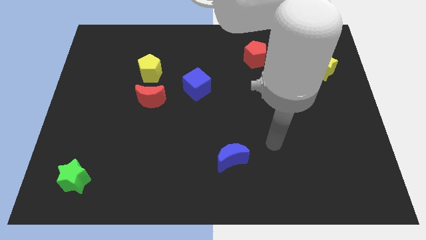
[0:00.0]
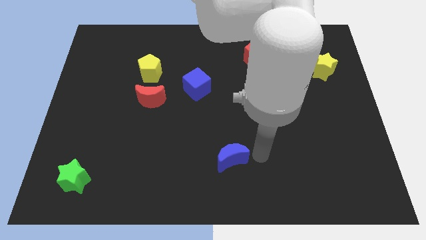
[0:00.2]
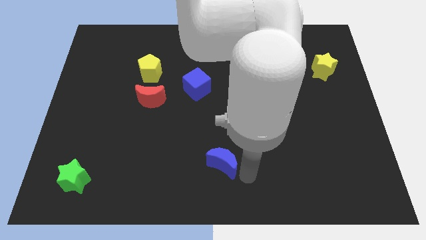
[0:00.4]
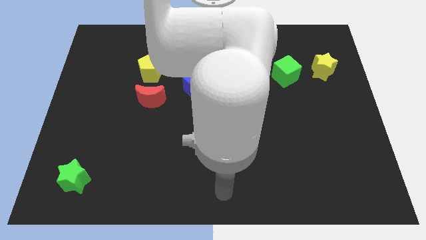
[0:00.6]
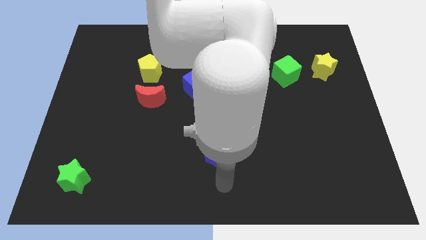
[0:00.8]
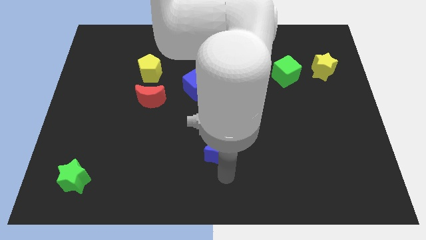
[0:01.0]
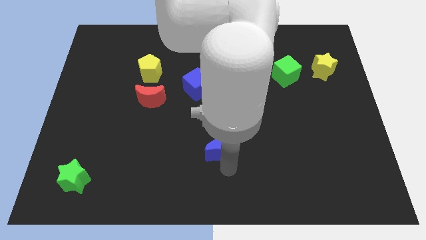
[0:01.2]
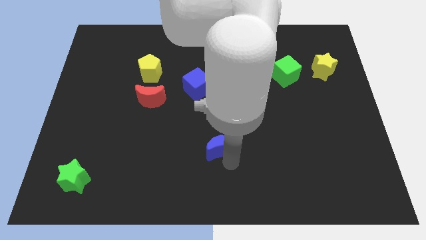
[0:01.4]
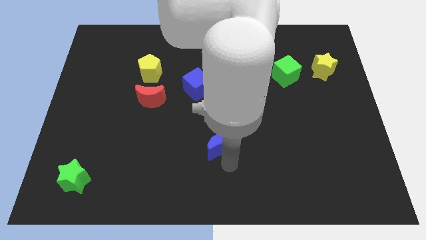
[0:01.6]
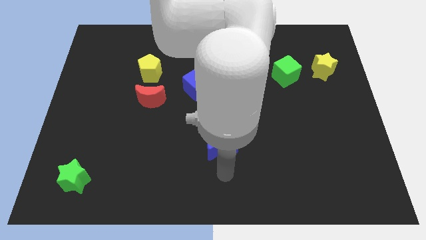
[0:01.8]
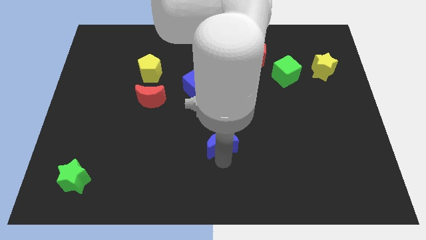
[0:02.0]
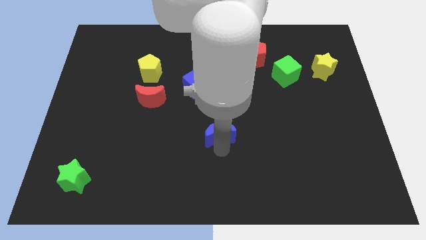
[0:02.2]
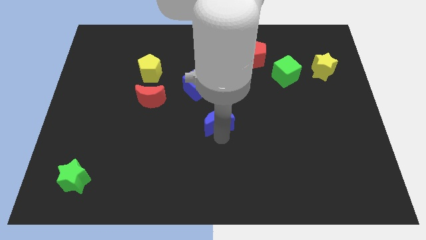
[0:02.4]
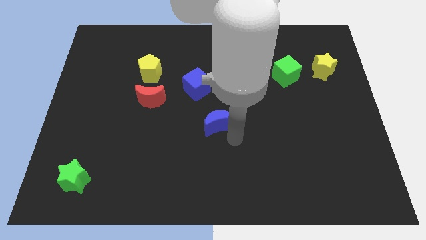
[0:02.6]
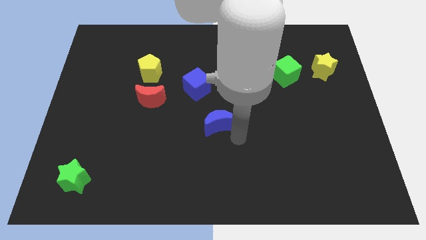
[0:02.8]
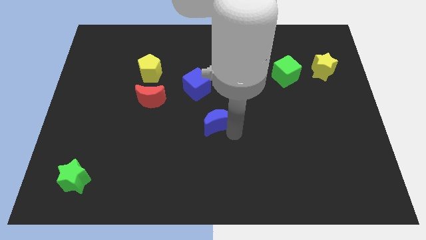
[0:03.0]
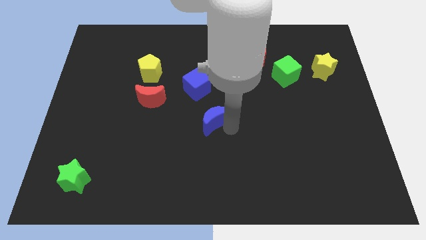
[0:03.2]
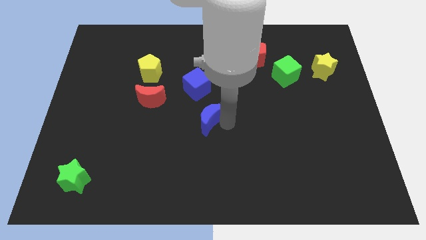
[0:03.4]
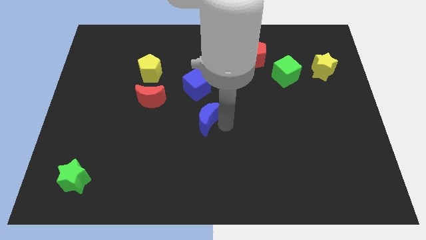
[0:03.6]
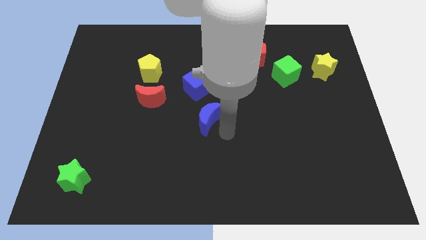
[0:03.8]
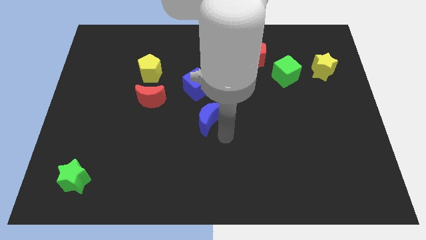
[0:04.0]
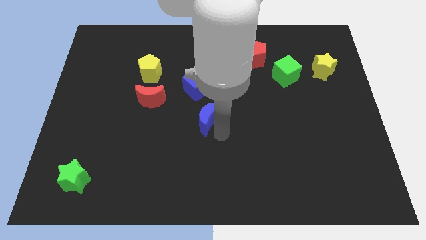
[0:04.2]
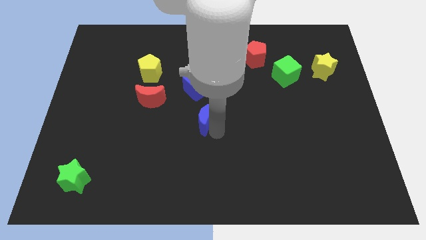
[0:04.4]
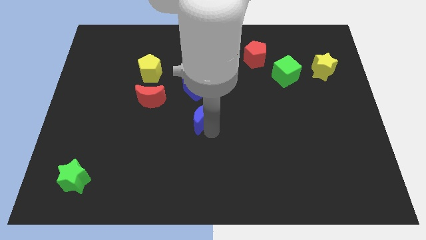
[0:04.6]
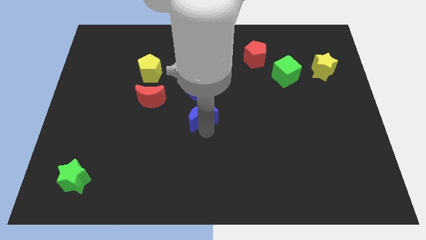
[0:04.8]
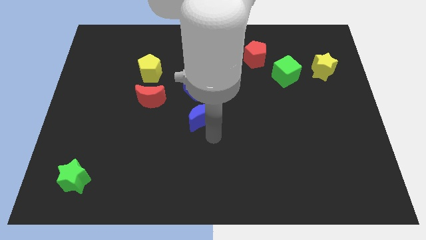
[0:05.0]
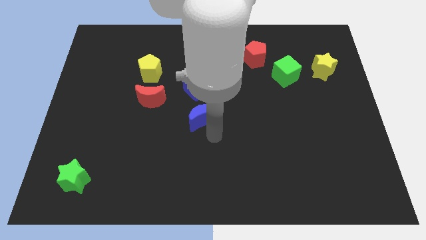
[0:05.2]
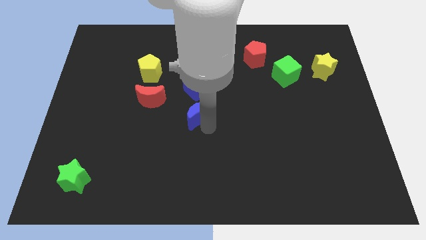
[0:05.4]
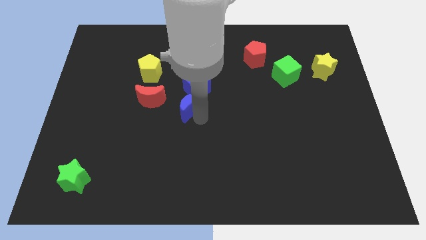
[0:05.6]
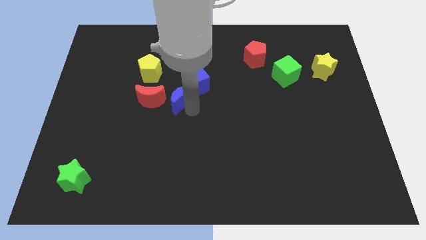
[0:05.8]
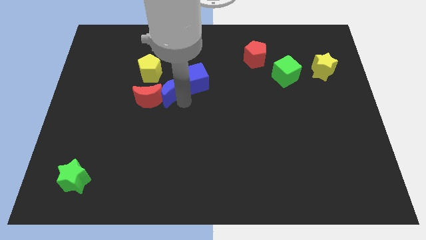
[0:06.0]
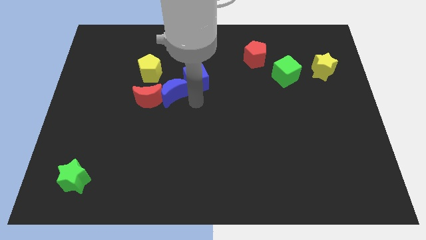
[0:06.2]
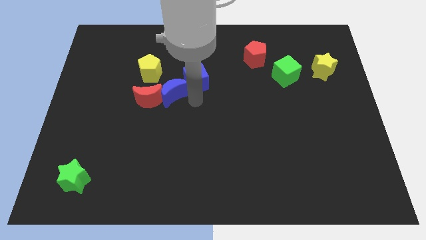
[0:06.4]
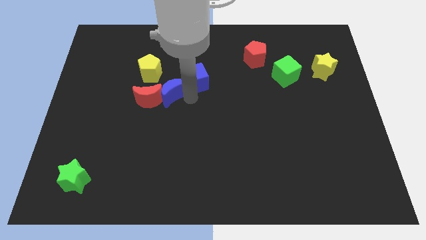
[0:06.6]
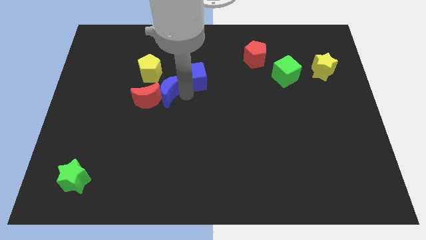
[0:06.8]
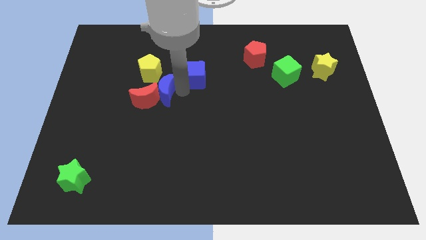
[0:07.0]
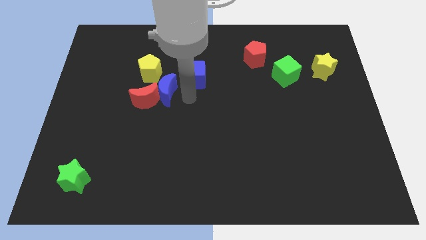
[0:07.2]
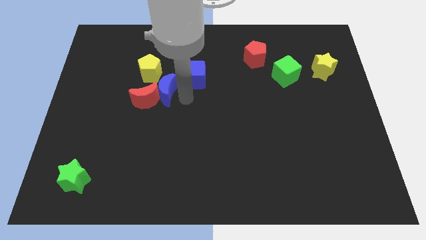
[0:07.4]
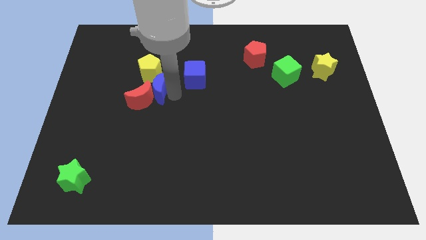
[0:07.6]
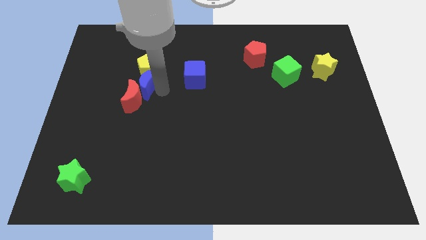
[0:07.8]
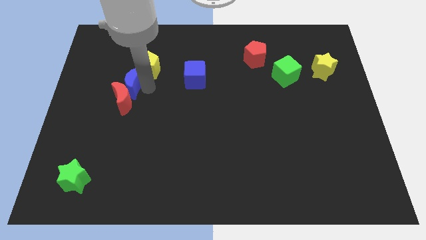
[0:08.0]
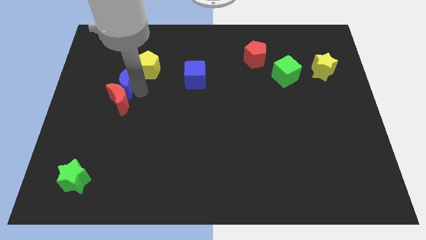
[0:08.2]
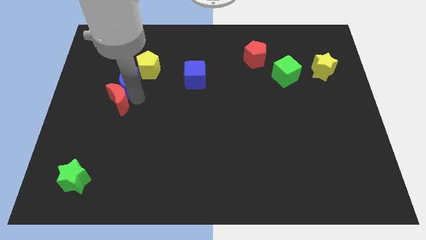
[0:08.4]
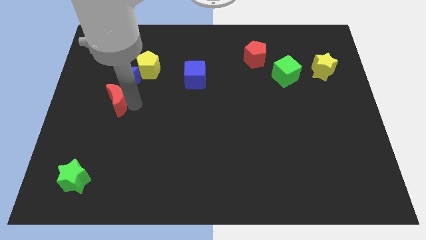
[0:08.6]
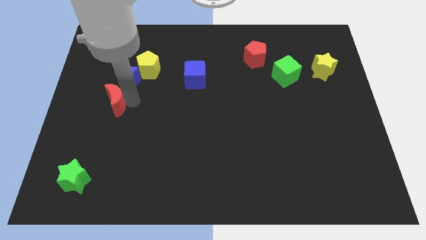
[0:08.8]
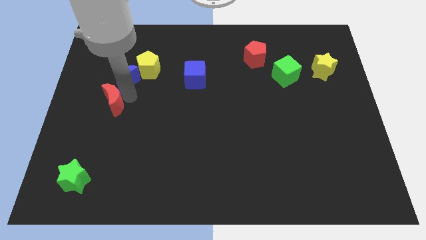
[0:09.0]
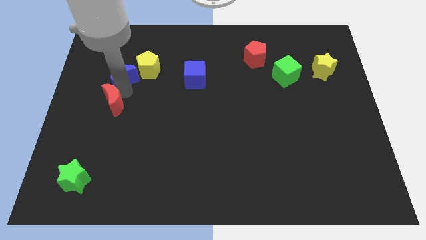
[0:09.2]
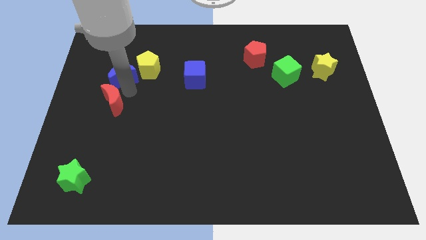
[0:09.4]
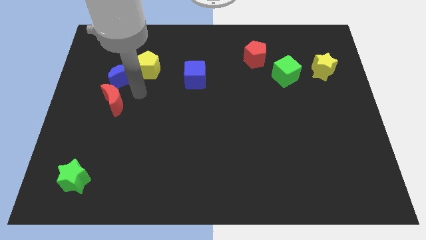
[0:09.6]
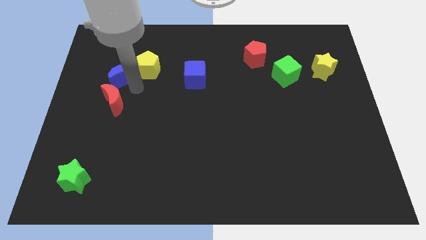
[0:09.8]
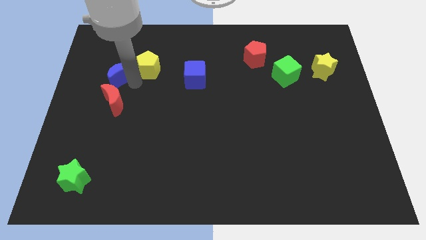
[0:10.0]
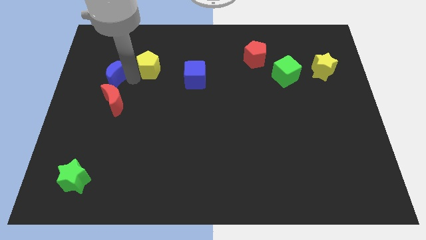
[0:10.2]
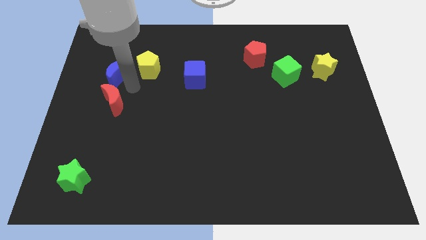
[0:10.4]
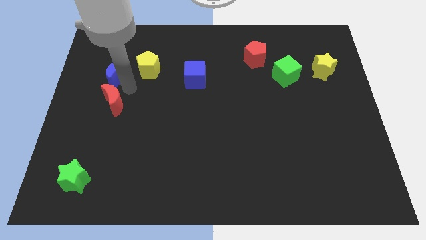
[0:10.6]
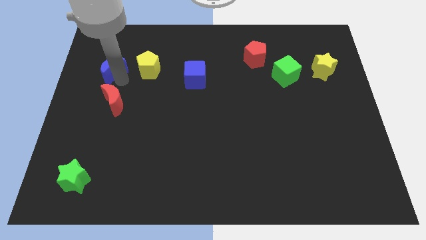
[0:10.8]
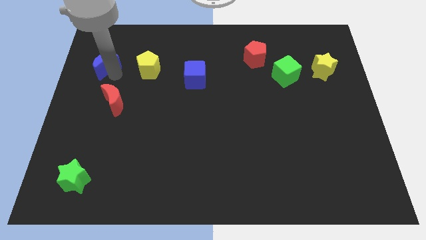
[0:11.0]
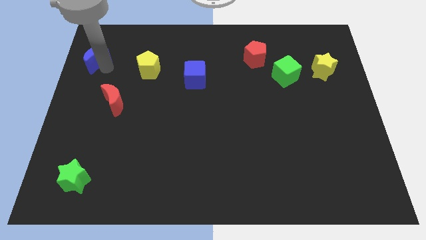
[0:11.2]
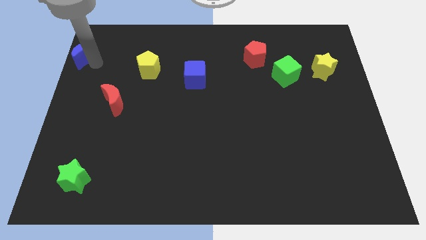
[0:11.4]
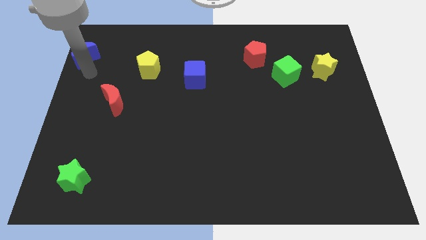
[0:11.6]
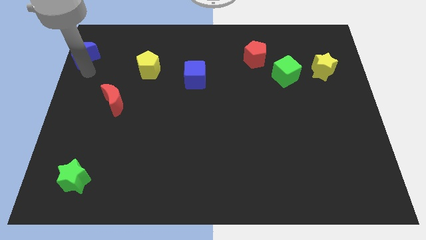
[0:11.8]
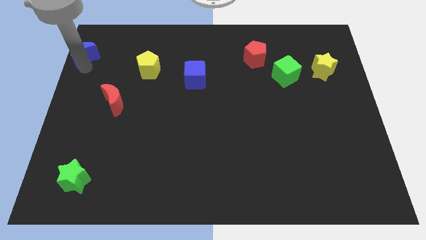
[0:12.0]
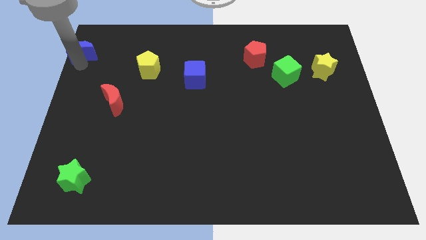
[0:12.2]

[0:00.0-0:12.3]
slide the blue moon to the top left
